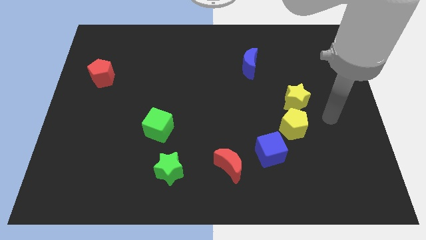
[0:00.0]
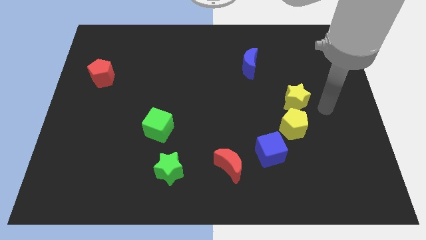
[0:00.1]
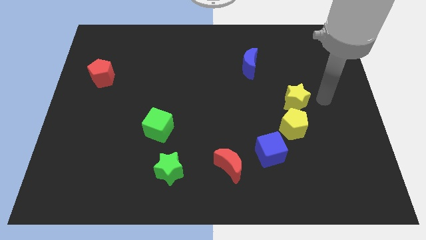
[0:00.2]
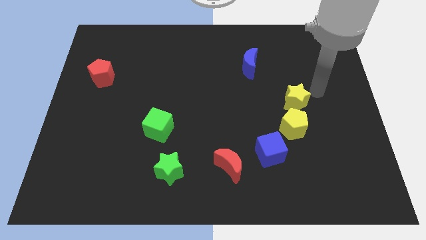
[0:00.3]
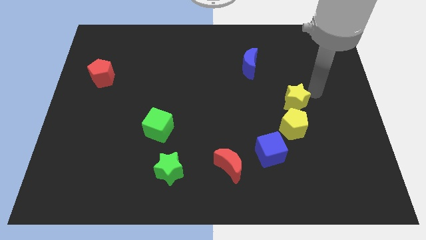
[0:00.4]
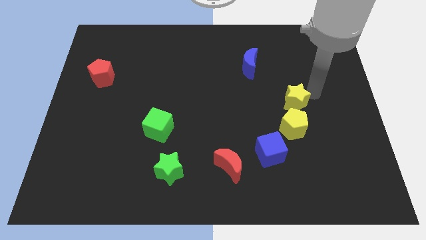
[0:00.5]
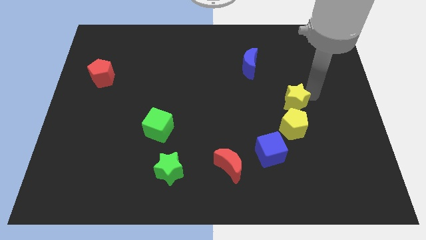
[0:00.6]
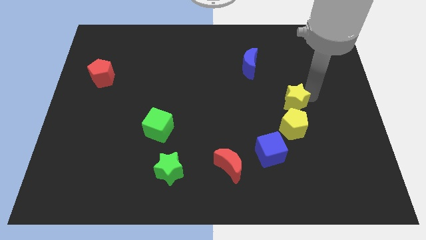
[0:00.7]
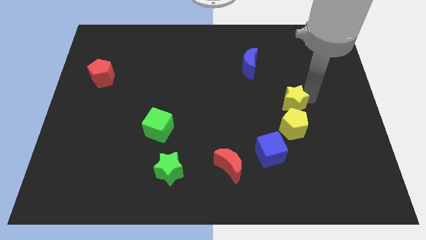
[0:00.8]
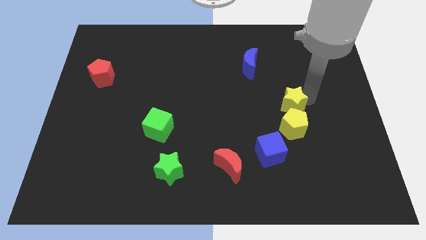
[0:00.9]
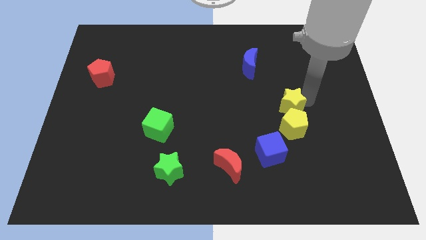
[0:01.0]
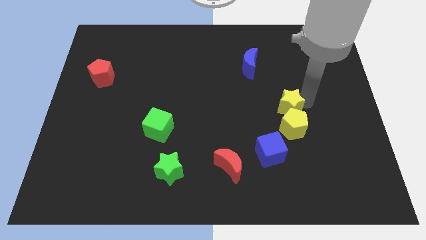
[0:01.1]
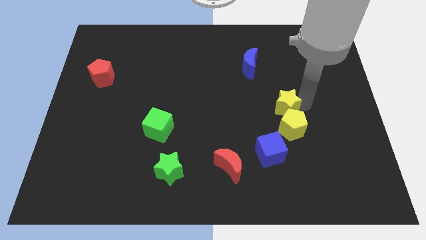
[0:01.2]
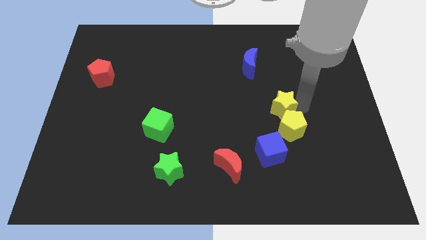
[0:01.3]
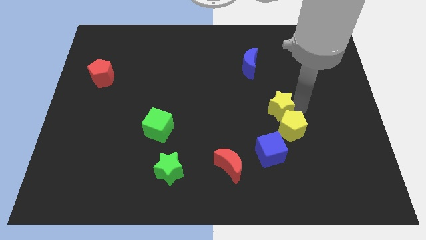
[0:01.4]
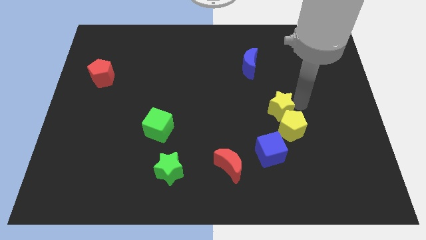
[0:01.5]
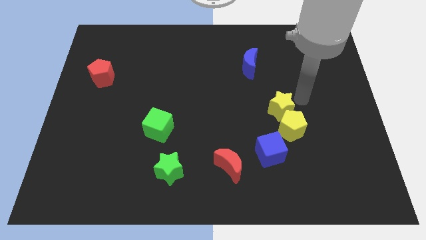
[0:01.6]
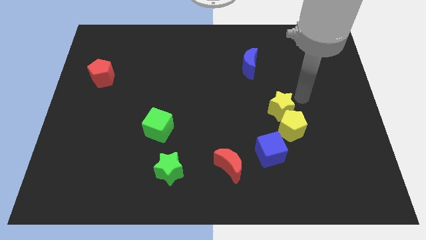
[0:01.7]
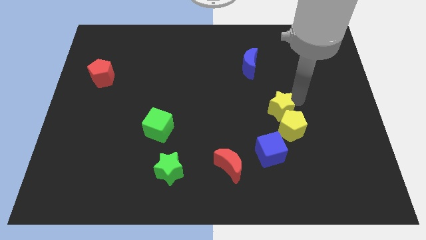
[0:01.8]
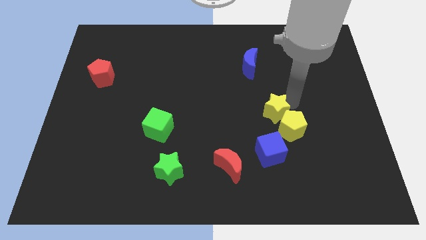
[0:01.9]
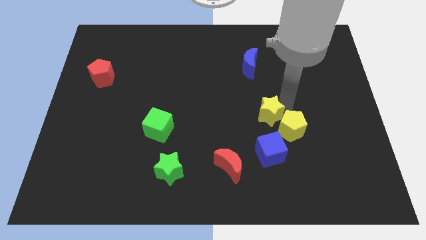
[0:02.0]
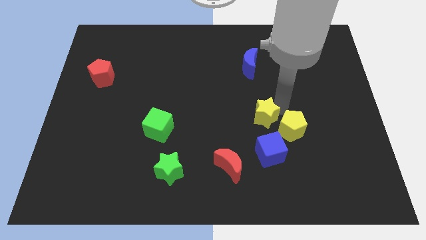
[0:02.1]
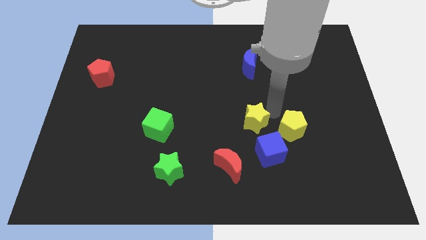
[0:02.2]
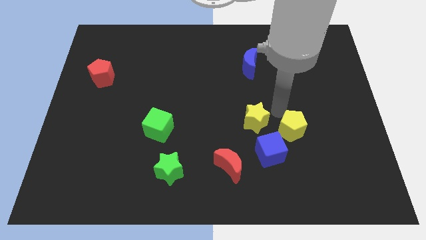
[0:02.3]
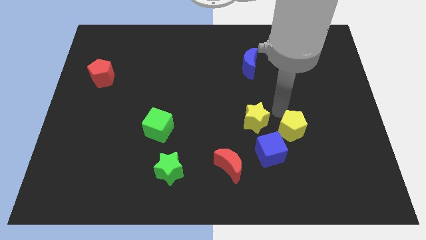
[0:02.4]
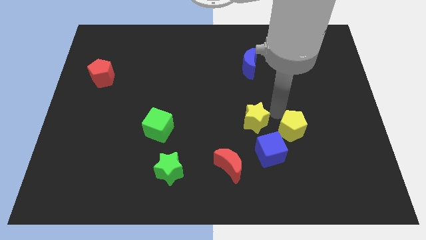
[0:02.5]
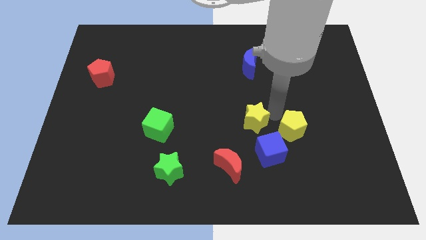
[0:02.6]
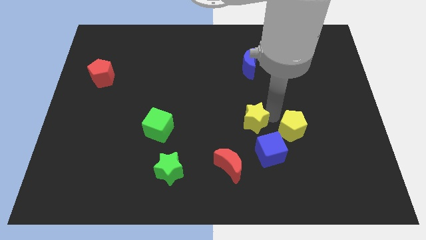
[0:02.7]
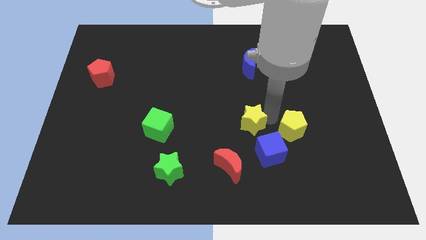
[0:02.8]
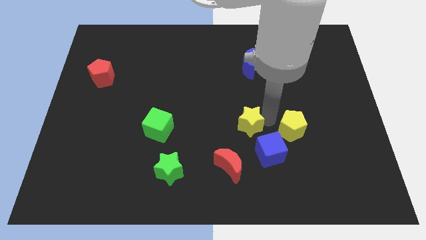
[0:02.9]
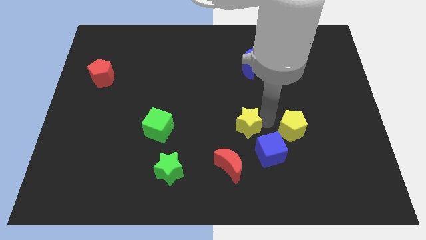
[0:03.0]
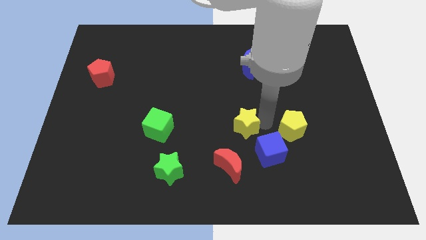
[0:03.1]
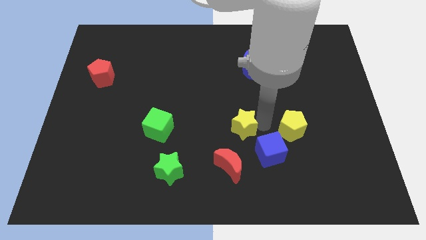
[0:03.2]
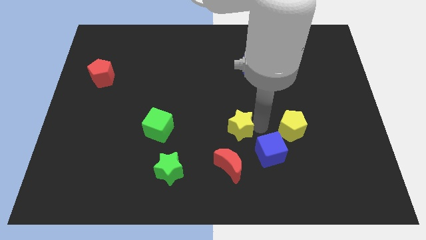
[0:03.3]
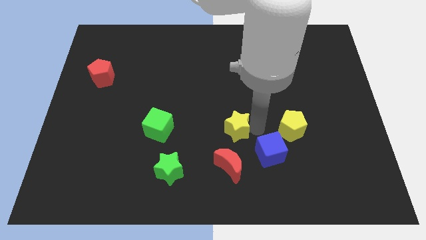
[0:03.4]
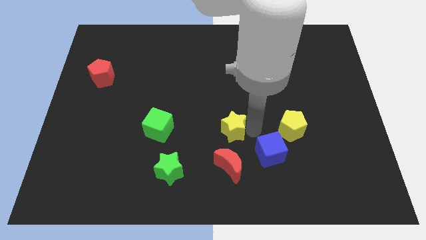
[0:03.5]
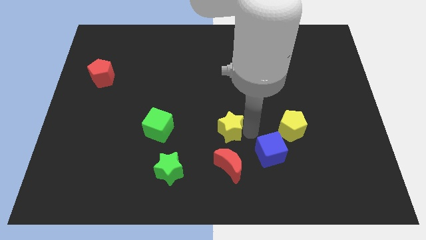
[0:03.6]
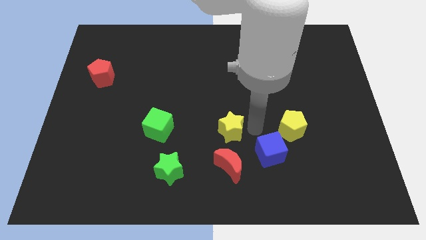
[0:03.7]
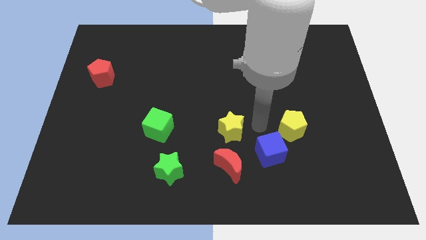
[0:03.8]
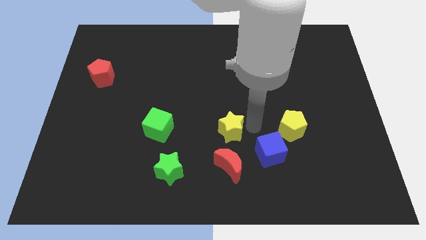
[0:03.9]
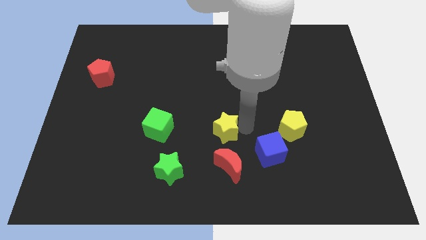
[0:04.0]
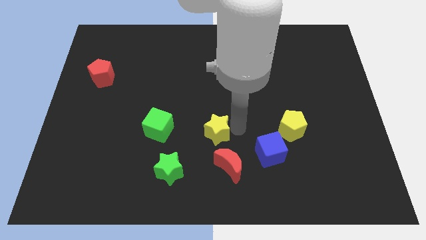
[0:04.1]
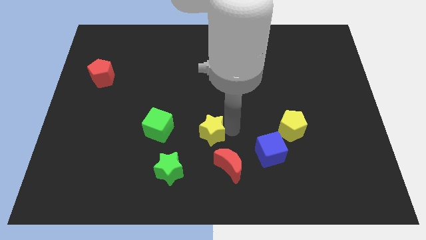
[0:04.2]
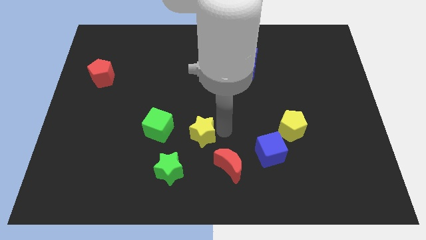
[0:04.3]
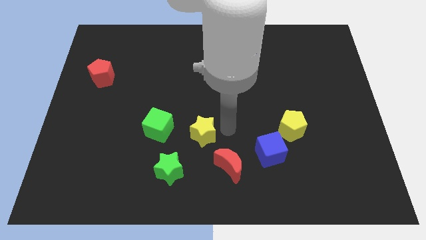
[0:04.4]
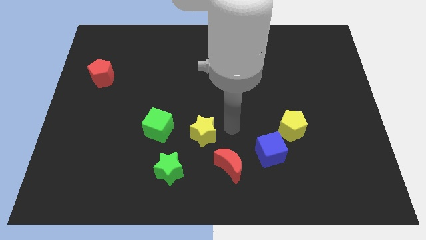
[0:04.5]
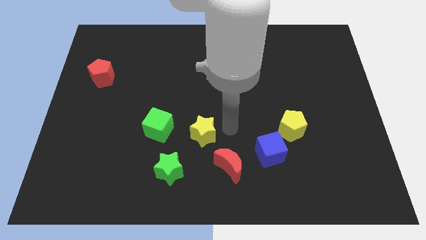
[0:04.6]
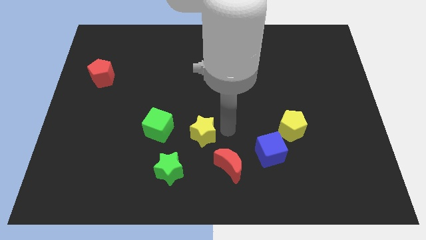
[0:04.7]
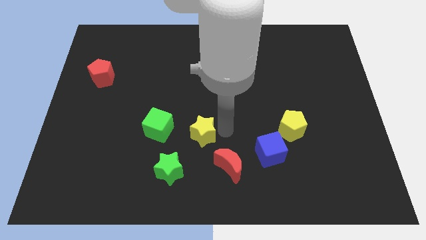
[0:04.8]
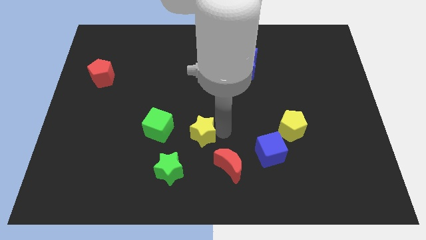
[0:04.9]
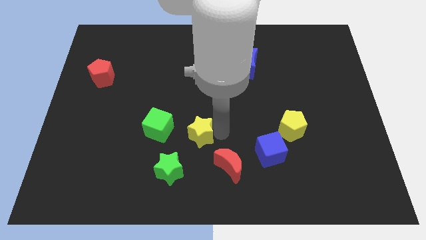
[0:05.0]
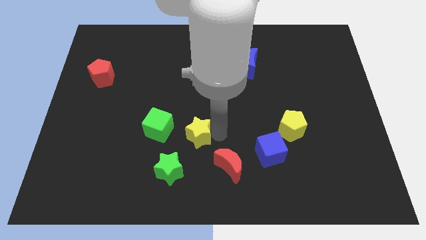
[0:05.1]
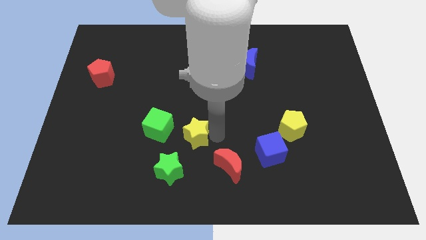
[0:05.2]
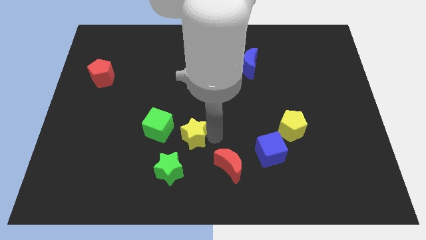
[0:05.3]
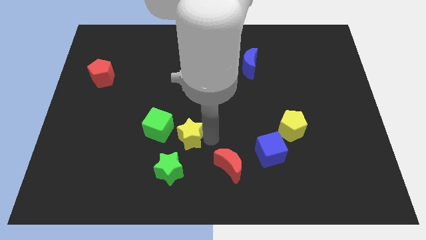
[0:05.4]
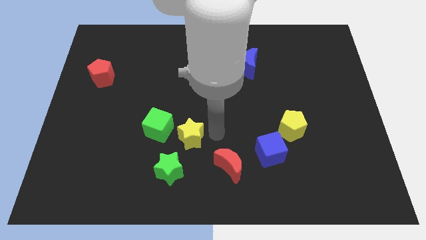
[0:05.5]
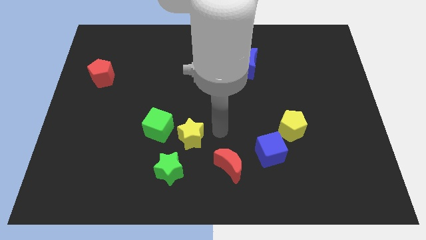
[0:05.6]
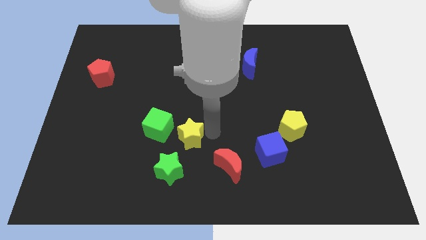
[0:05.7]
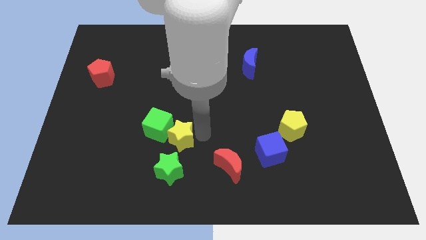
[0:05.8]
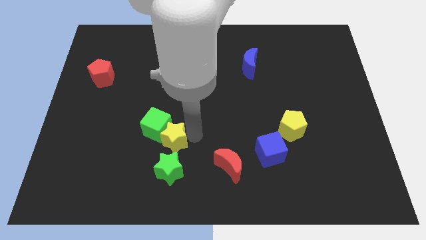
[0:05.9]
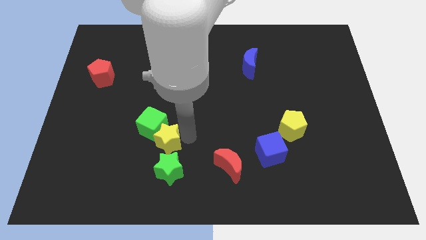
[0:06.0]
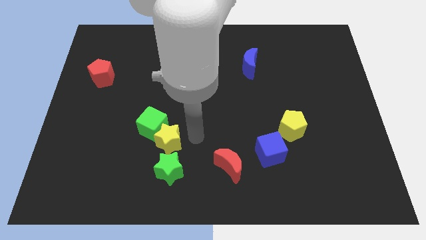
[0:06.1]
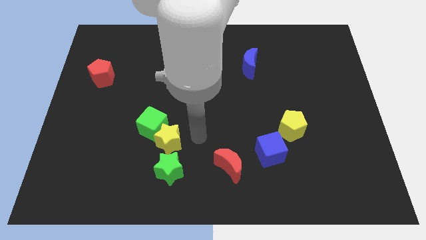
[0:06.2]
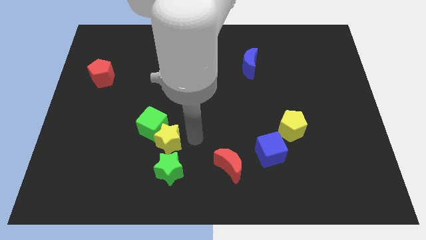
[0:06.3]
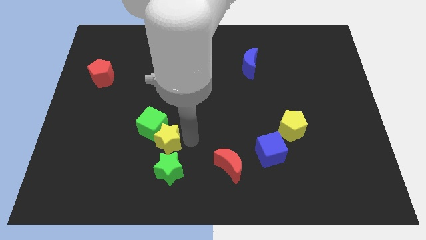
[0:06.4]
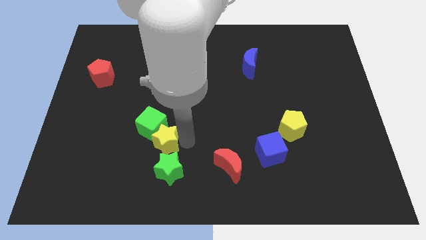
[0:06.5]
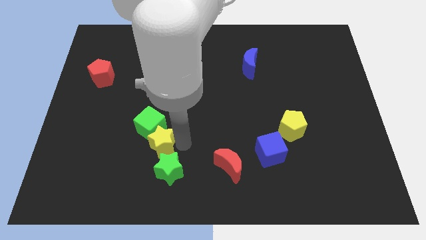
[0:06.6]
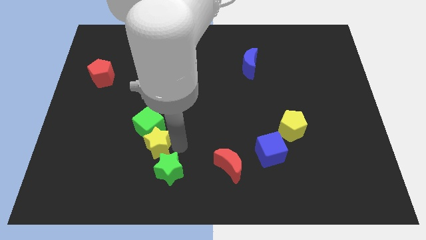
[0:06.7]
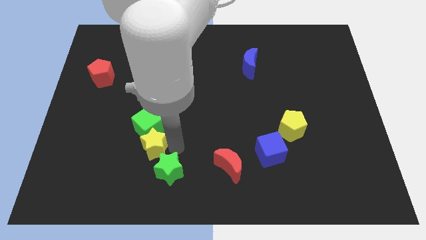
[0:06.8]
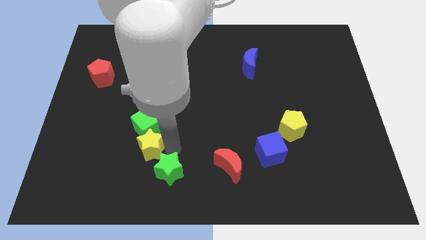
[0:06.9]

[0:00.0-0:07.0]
push the yellow star to the bottom left side of the green cube
